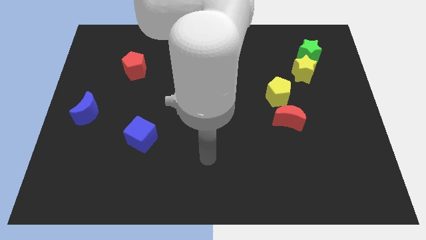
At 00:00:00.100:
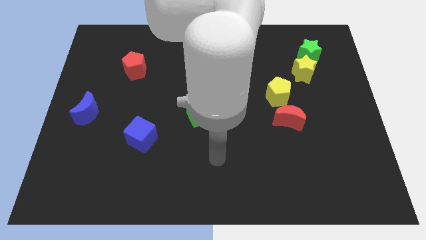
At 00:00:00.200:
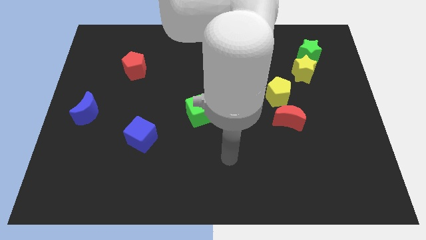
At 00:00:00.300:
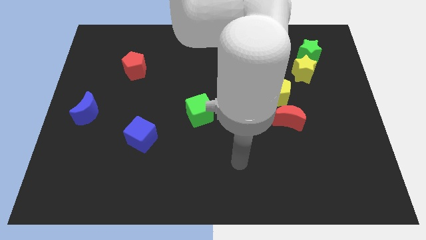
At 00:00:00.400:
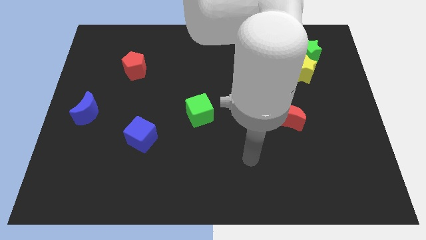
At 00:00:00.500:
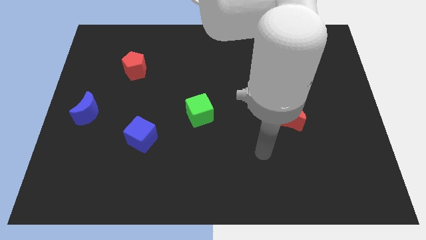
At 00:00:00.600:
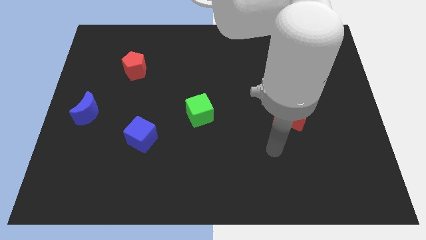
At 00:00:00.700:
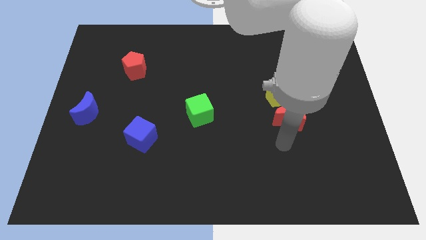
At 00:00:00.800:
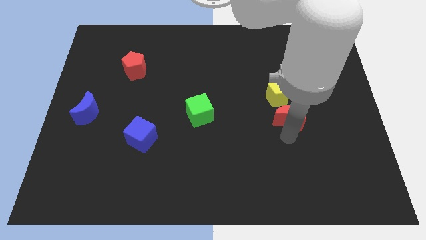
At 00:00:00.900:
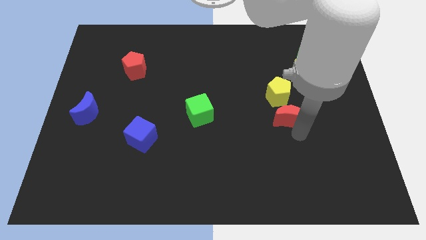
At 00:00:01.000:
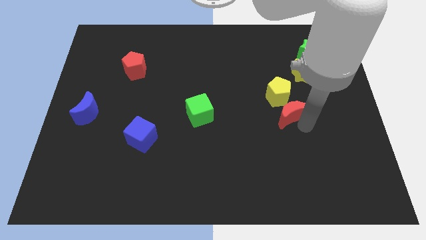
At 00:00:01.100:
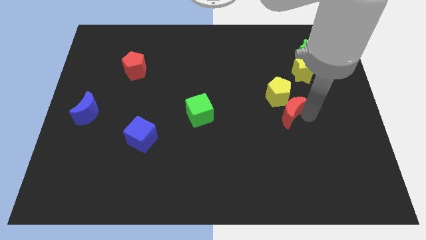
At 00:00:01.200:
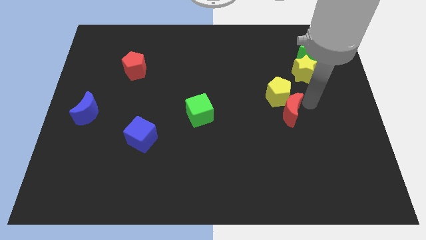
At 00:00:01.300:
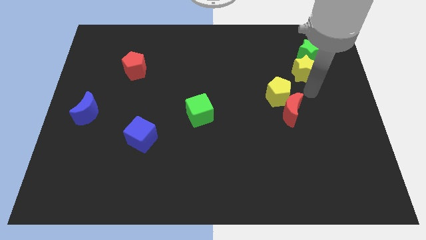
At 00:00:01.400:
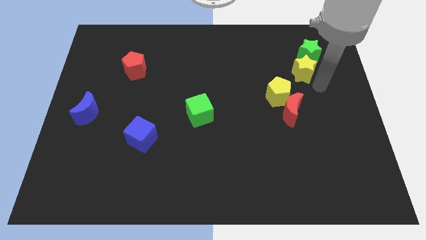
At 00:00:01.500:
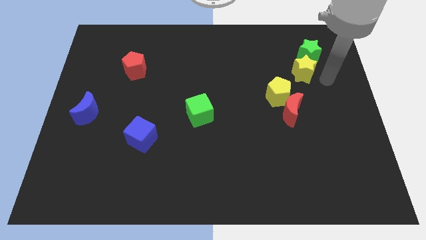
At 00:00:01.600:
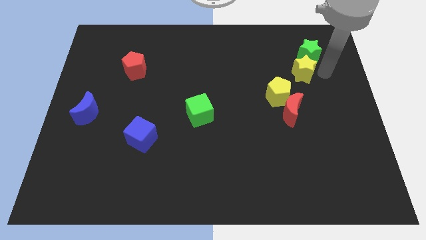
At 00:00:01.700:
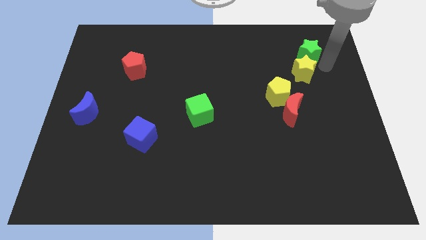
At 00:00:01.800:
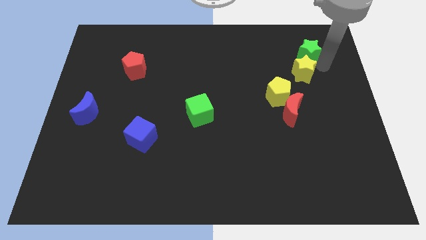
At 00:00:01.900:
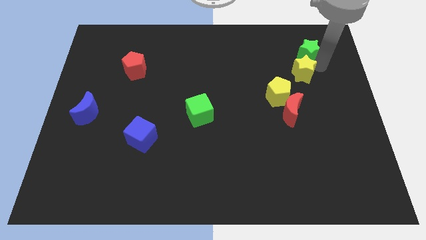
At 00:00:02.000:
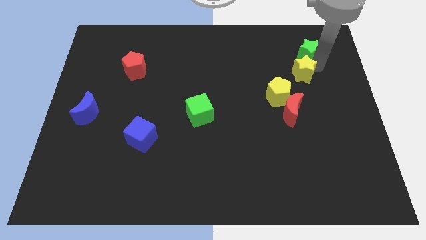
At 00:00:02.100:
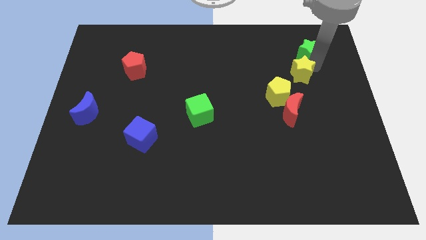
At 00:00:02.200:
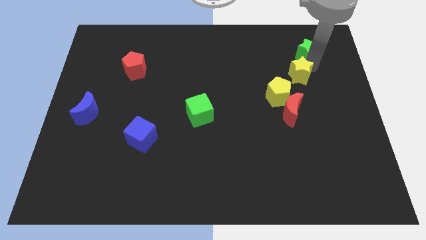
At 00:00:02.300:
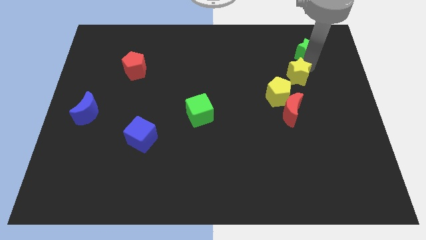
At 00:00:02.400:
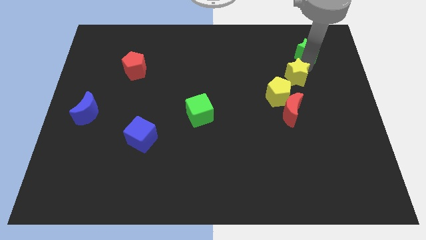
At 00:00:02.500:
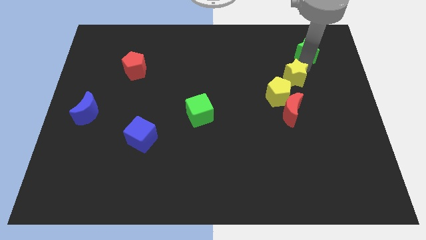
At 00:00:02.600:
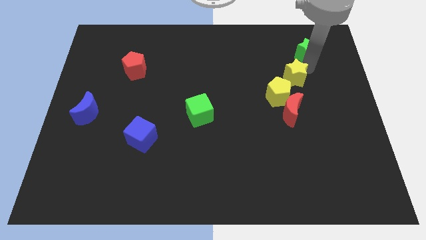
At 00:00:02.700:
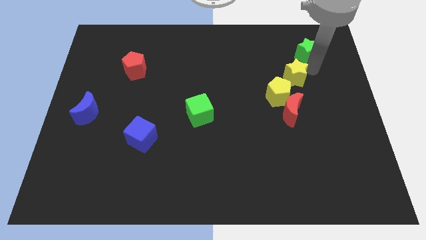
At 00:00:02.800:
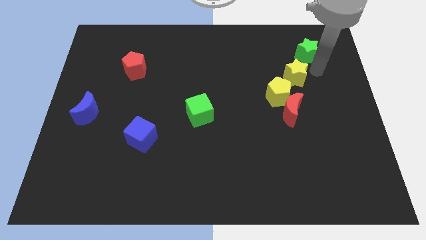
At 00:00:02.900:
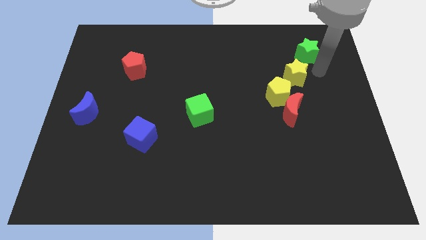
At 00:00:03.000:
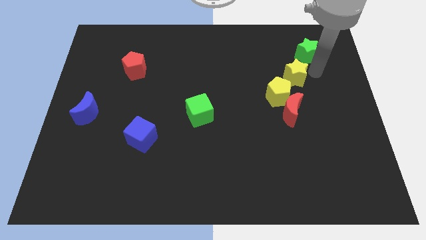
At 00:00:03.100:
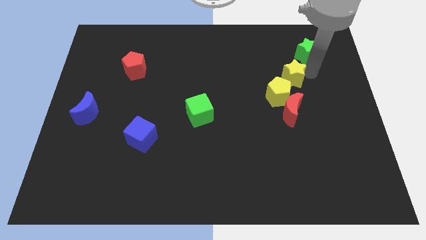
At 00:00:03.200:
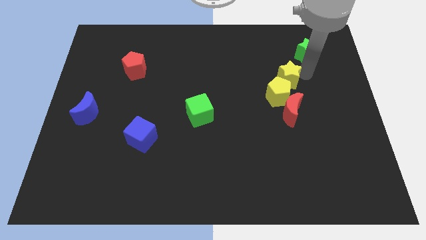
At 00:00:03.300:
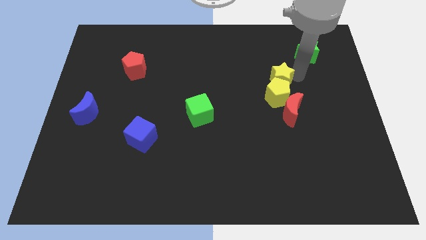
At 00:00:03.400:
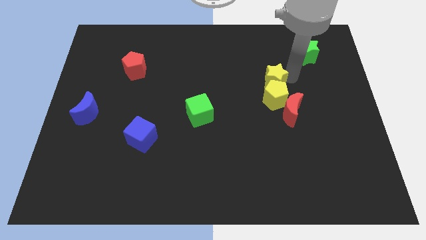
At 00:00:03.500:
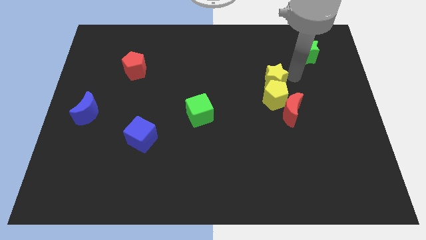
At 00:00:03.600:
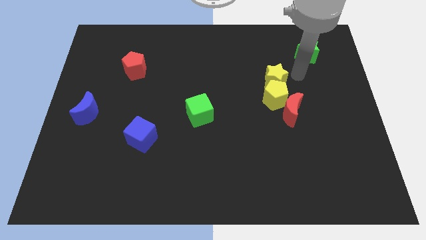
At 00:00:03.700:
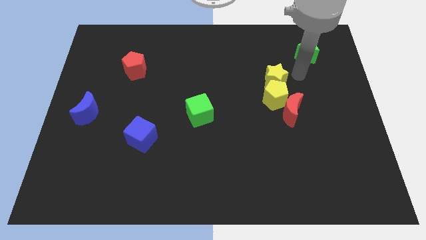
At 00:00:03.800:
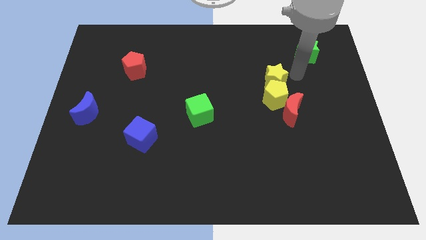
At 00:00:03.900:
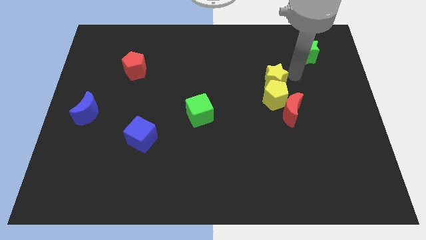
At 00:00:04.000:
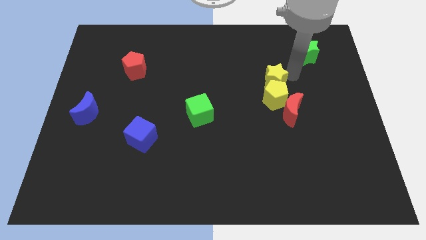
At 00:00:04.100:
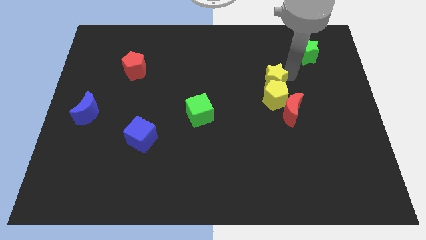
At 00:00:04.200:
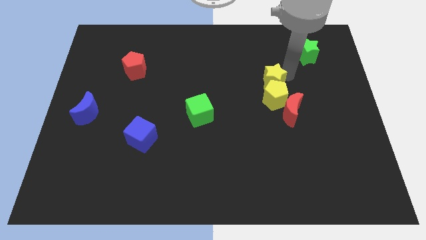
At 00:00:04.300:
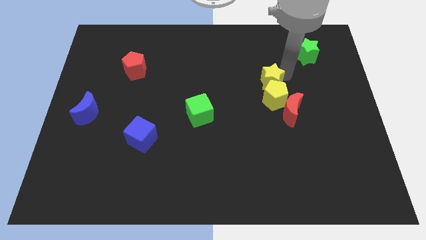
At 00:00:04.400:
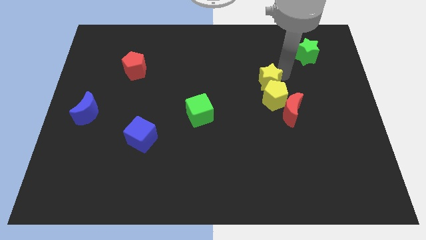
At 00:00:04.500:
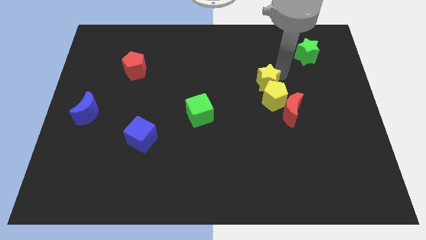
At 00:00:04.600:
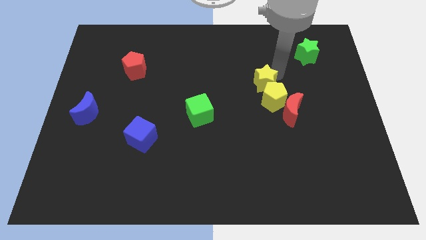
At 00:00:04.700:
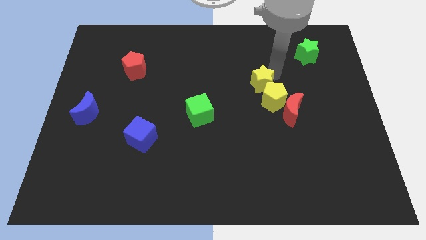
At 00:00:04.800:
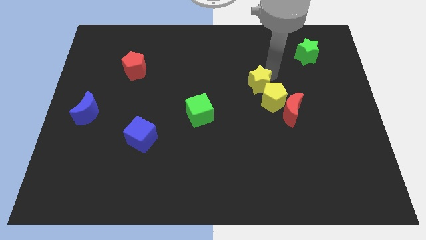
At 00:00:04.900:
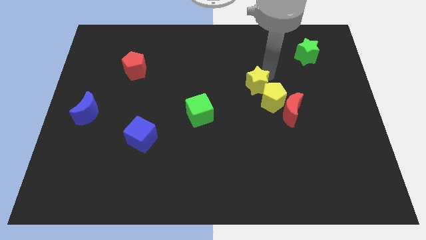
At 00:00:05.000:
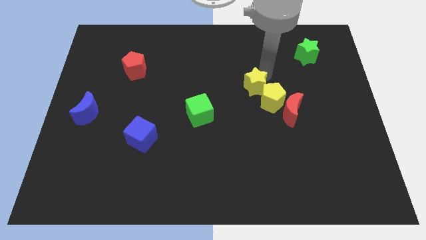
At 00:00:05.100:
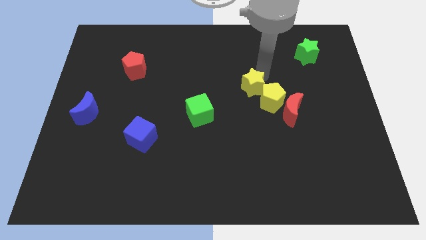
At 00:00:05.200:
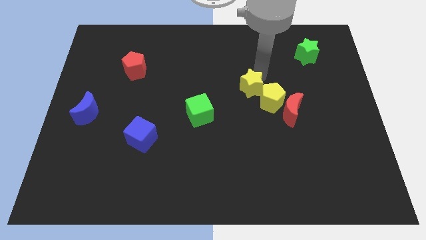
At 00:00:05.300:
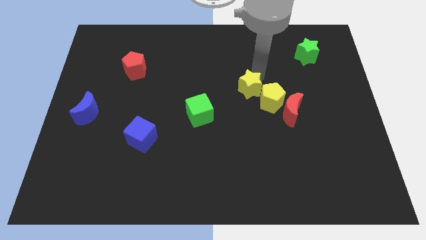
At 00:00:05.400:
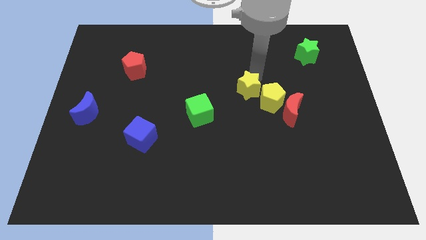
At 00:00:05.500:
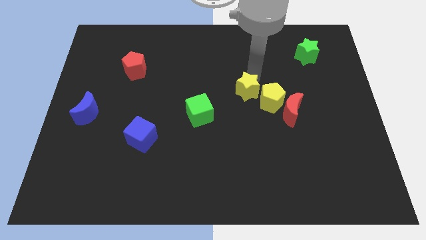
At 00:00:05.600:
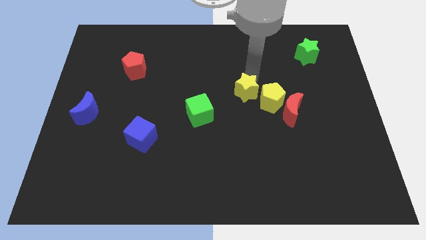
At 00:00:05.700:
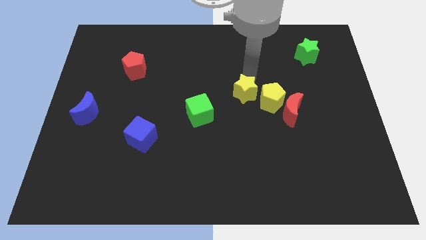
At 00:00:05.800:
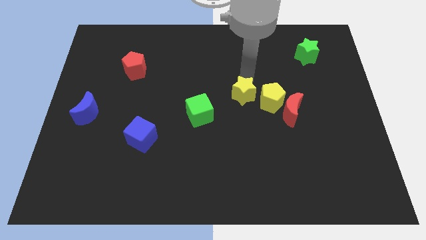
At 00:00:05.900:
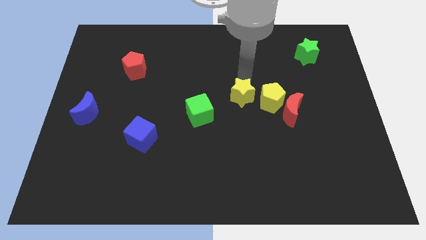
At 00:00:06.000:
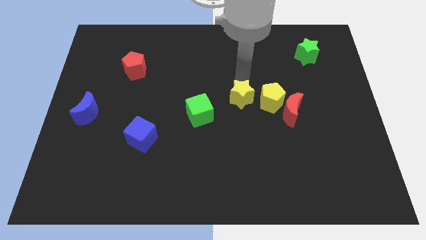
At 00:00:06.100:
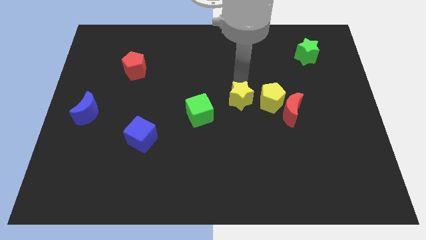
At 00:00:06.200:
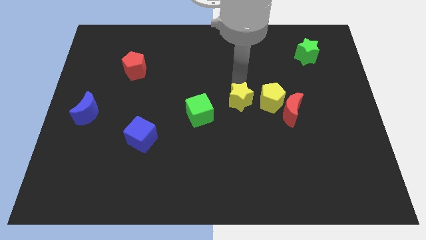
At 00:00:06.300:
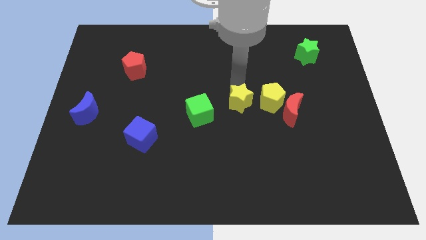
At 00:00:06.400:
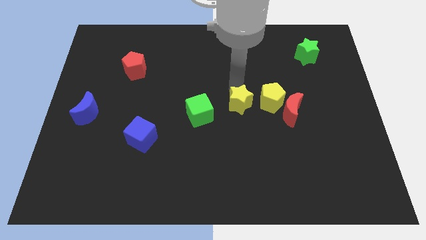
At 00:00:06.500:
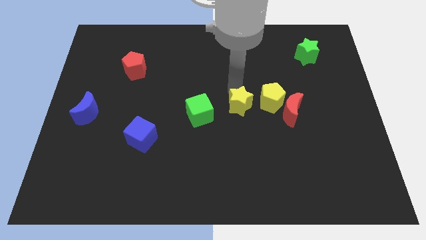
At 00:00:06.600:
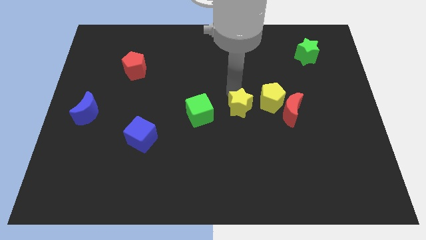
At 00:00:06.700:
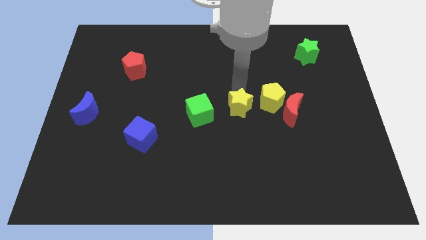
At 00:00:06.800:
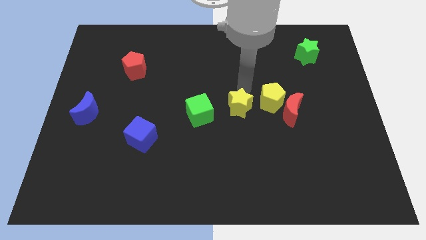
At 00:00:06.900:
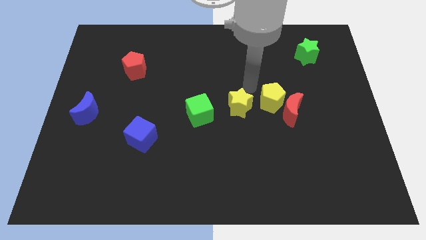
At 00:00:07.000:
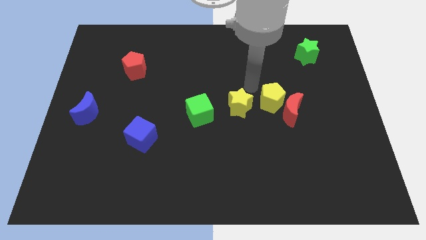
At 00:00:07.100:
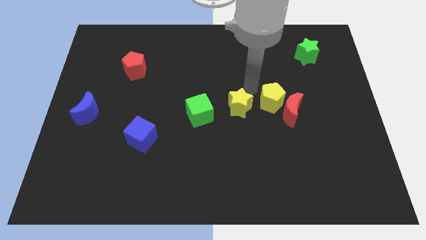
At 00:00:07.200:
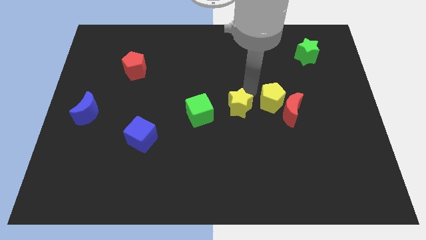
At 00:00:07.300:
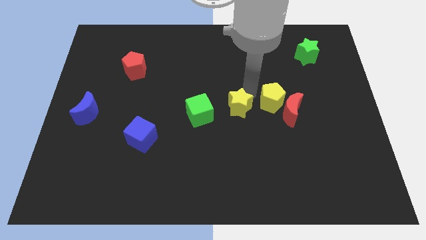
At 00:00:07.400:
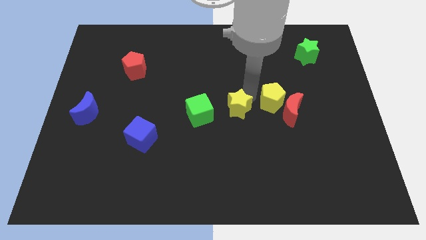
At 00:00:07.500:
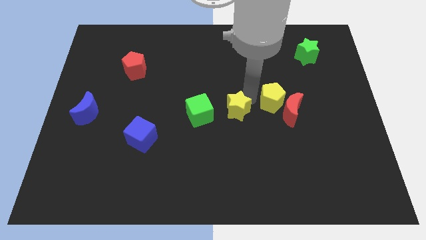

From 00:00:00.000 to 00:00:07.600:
slide the yellow star downwards and then left
